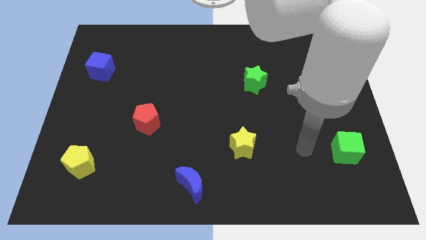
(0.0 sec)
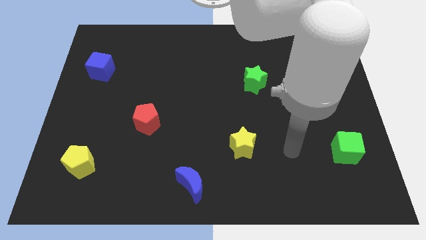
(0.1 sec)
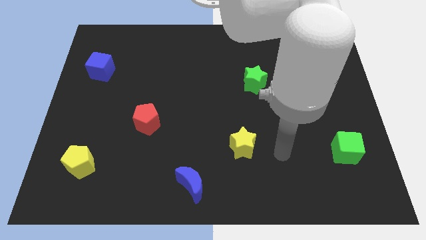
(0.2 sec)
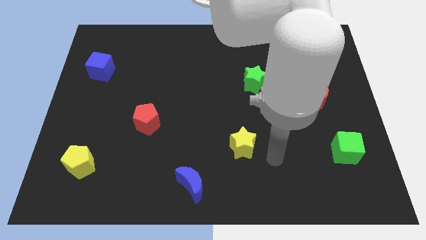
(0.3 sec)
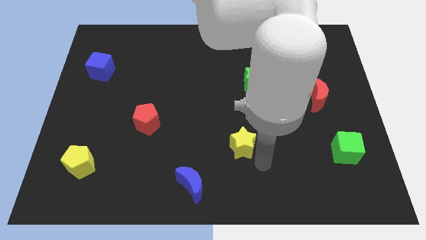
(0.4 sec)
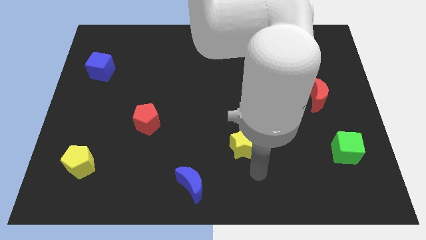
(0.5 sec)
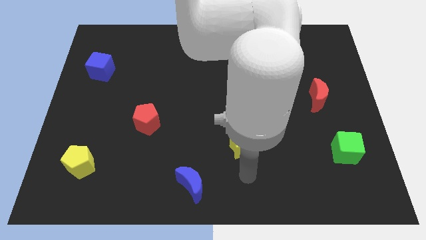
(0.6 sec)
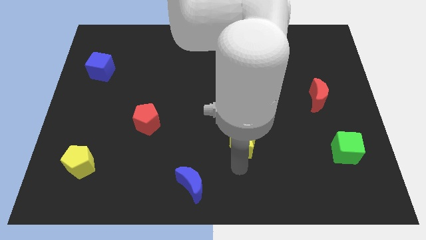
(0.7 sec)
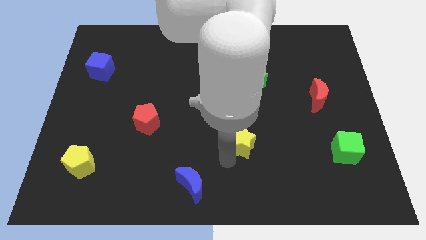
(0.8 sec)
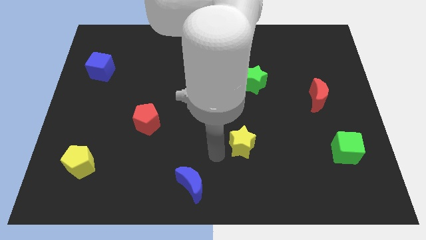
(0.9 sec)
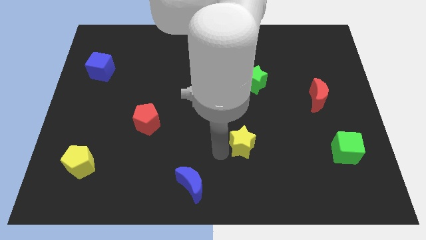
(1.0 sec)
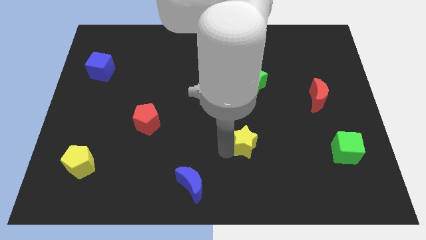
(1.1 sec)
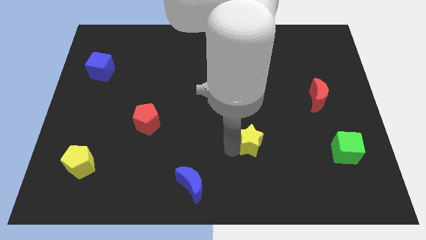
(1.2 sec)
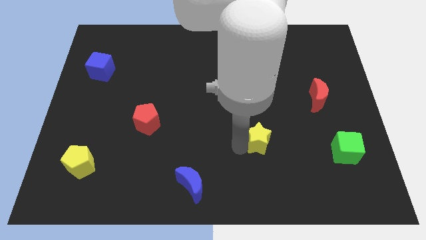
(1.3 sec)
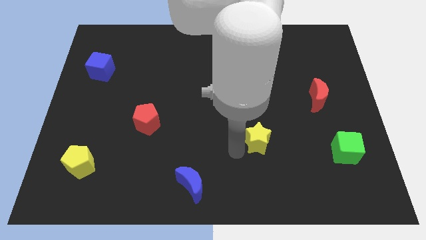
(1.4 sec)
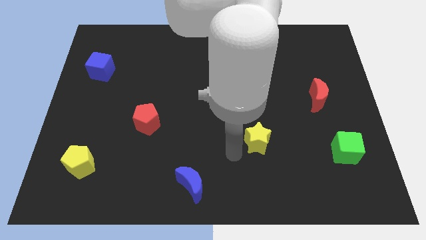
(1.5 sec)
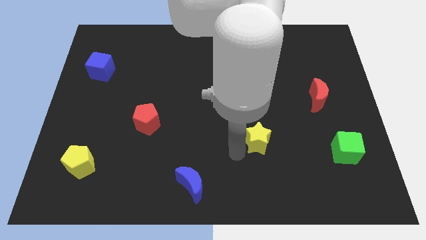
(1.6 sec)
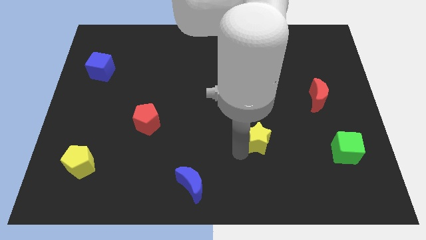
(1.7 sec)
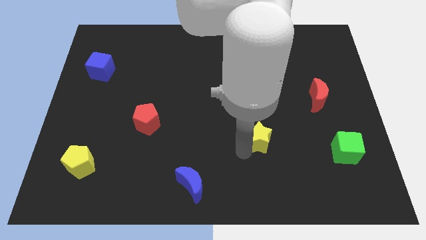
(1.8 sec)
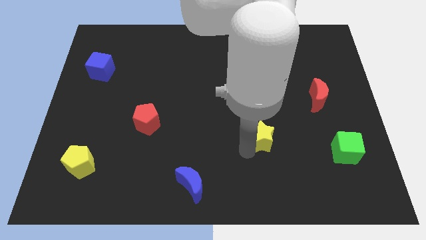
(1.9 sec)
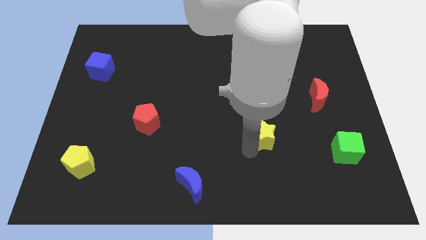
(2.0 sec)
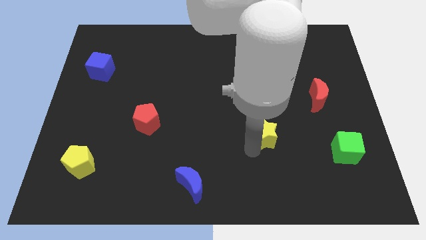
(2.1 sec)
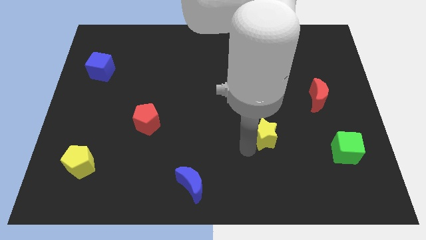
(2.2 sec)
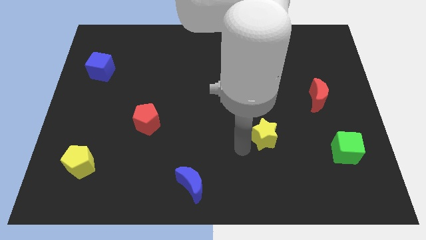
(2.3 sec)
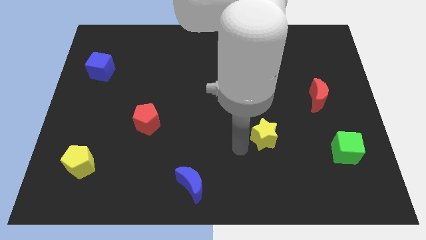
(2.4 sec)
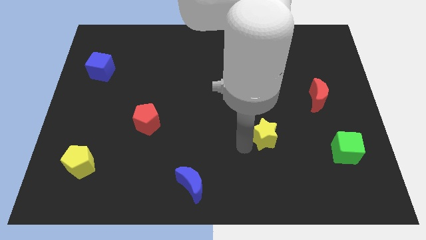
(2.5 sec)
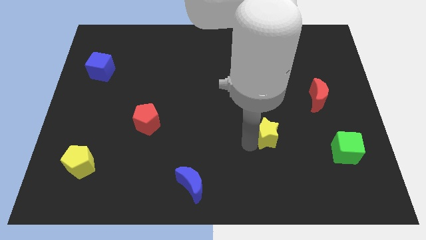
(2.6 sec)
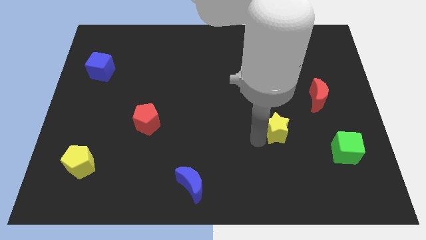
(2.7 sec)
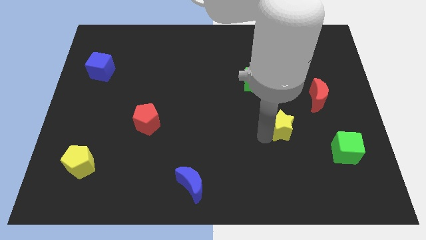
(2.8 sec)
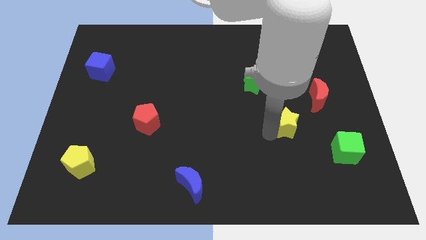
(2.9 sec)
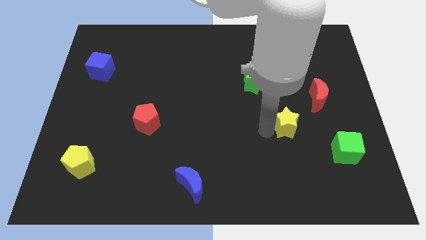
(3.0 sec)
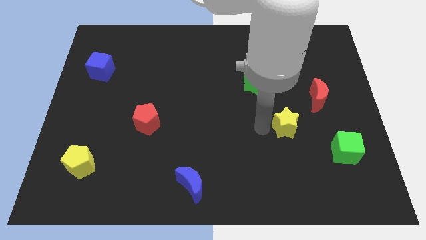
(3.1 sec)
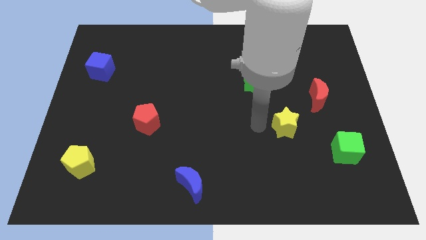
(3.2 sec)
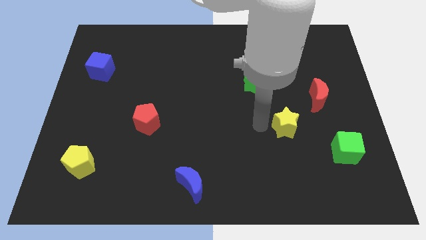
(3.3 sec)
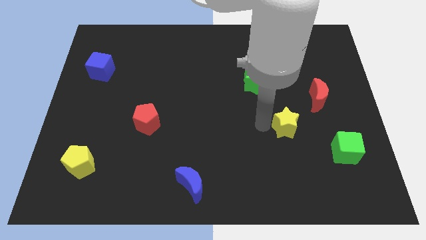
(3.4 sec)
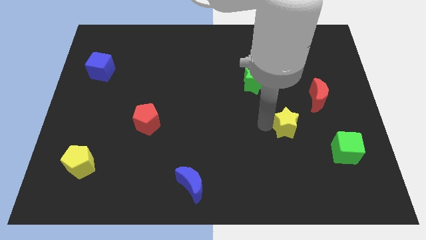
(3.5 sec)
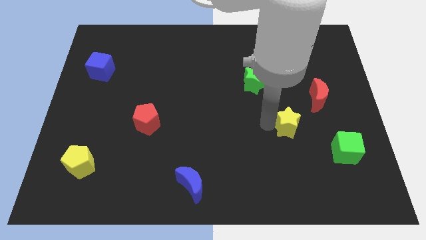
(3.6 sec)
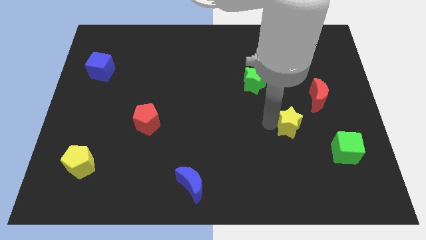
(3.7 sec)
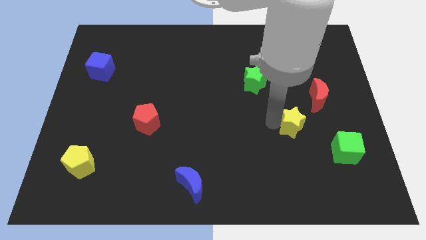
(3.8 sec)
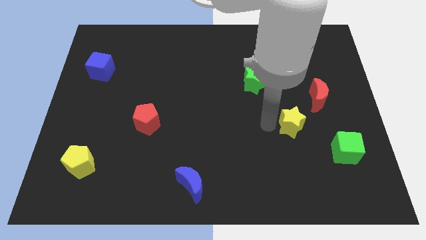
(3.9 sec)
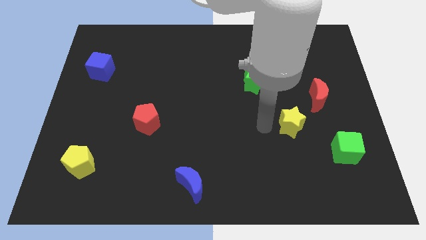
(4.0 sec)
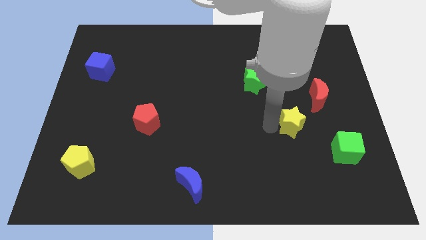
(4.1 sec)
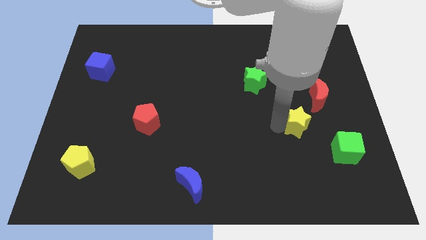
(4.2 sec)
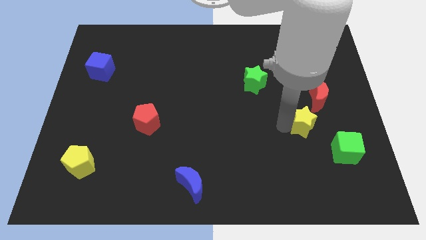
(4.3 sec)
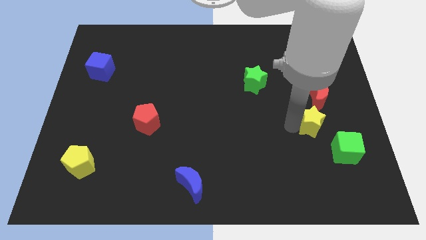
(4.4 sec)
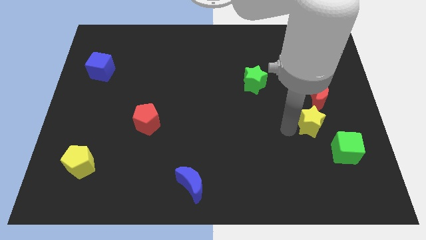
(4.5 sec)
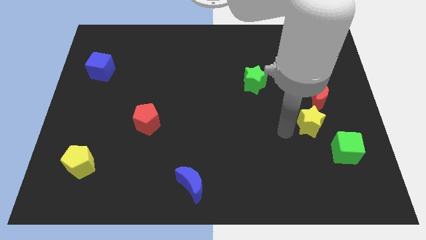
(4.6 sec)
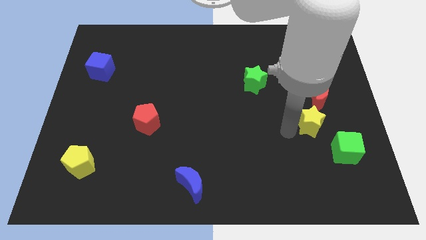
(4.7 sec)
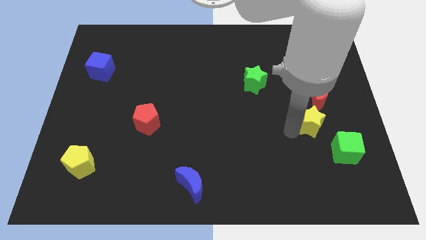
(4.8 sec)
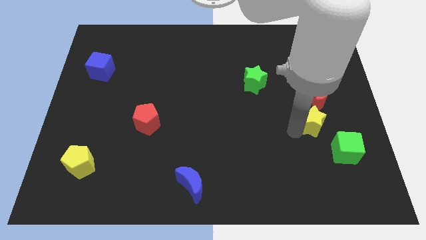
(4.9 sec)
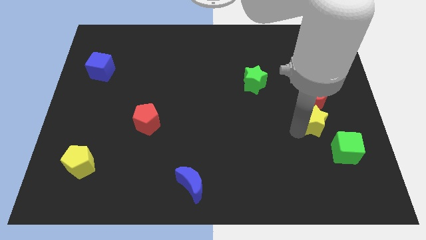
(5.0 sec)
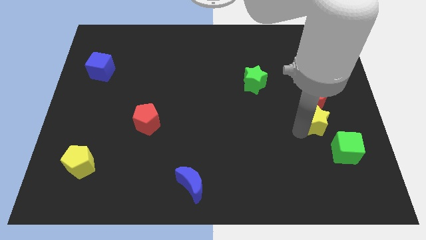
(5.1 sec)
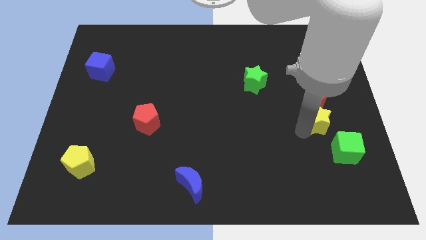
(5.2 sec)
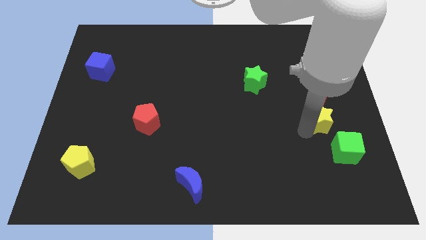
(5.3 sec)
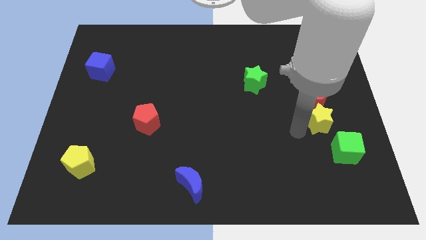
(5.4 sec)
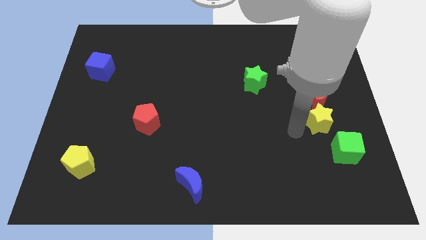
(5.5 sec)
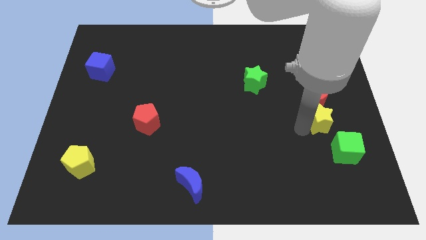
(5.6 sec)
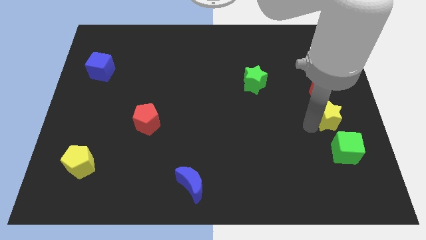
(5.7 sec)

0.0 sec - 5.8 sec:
put the yellow star to the center right

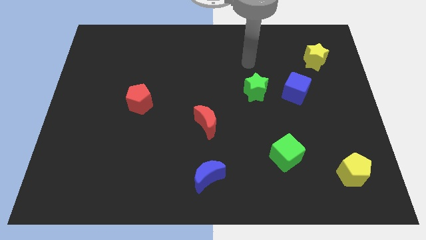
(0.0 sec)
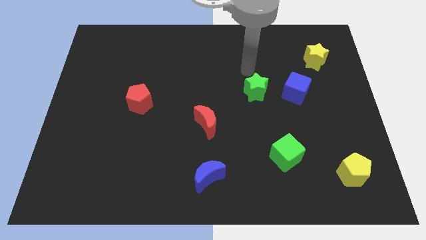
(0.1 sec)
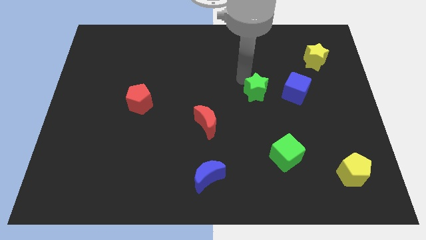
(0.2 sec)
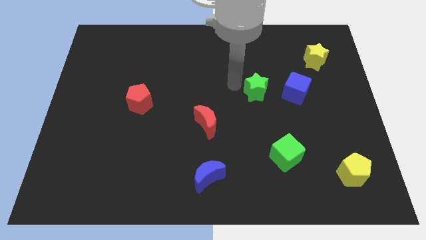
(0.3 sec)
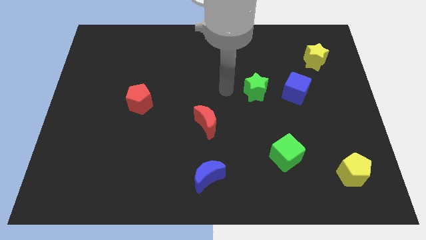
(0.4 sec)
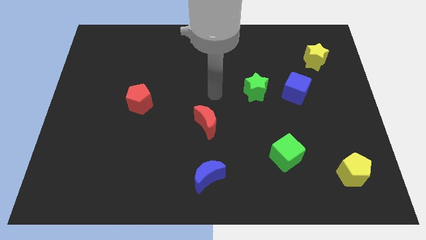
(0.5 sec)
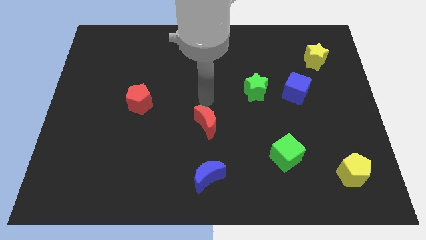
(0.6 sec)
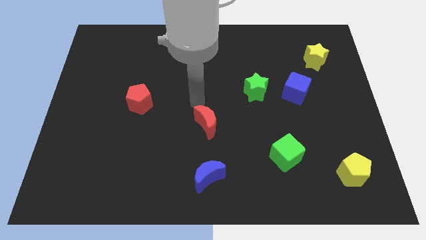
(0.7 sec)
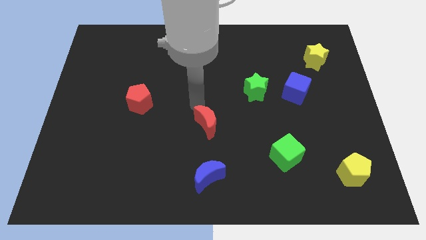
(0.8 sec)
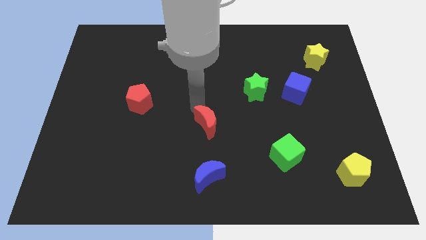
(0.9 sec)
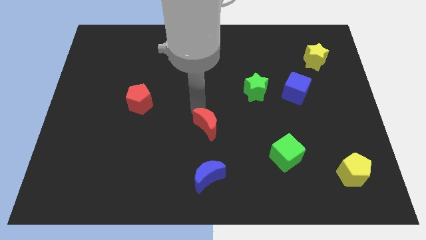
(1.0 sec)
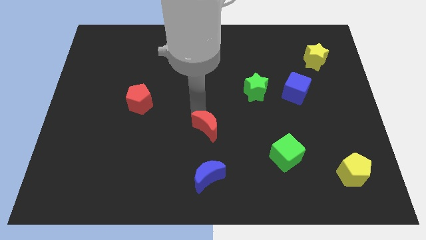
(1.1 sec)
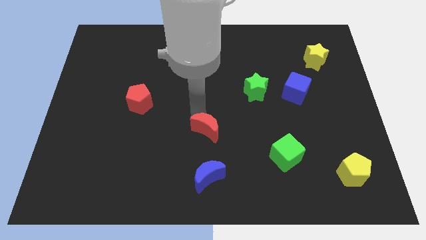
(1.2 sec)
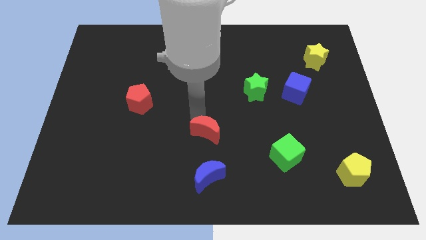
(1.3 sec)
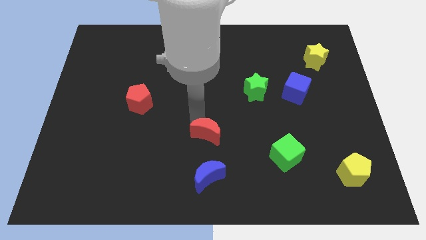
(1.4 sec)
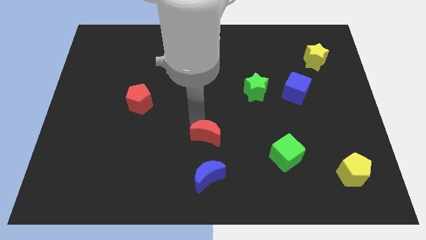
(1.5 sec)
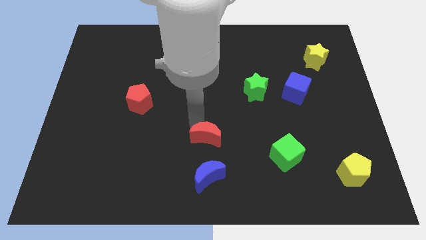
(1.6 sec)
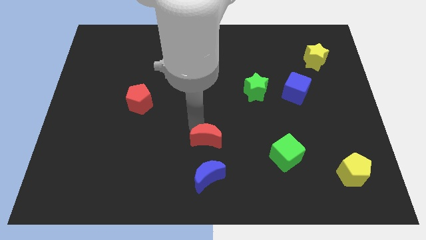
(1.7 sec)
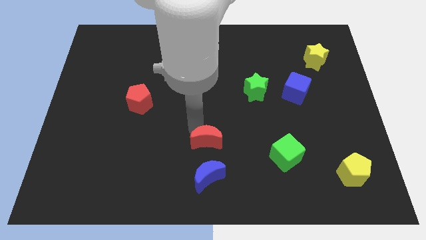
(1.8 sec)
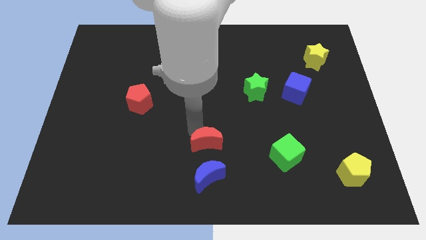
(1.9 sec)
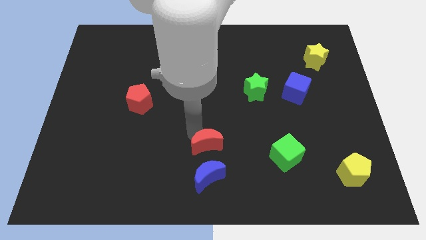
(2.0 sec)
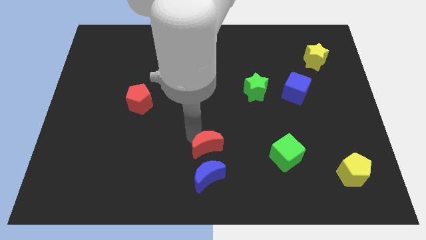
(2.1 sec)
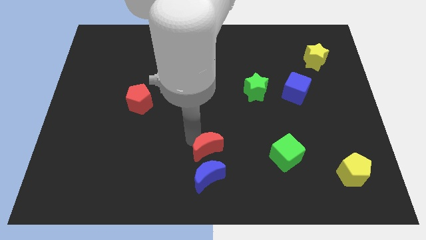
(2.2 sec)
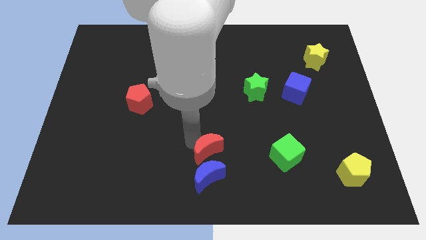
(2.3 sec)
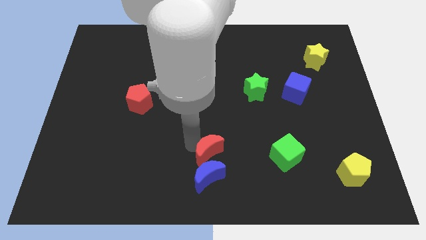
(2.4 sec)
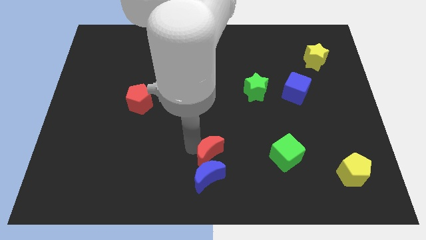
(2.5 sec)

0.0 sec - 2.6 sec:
slide the red moon to the bottom
